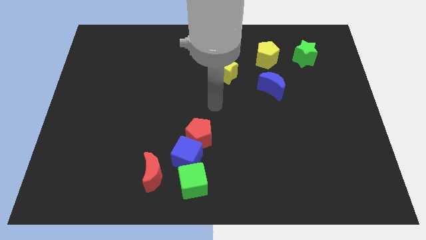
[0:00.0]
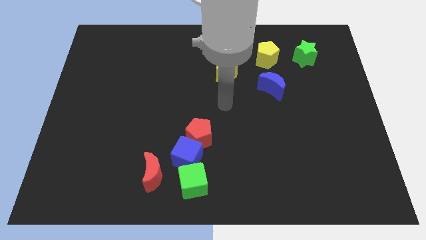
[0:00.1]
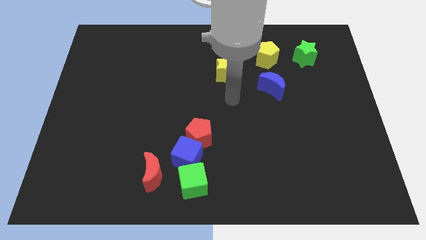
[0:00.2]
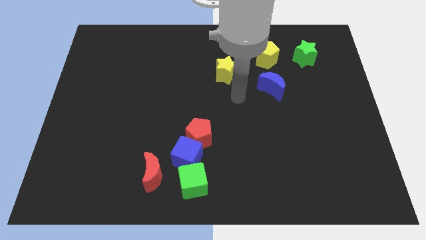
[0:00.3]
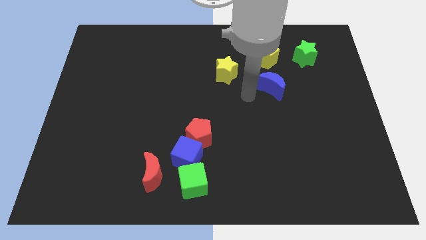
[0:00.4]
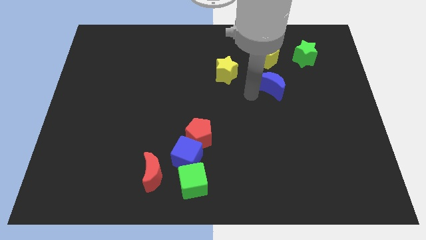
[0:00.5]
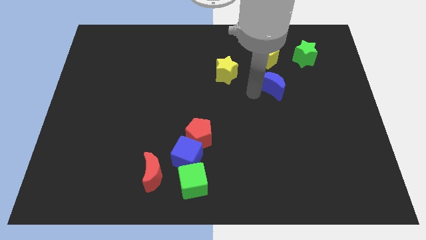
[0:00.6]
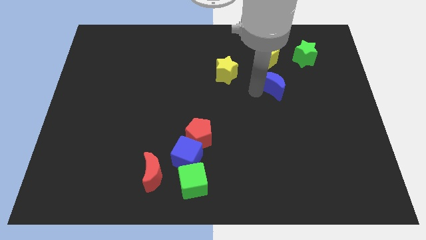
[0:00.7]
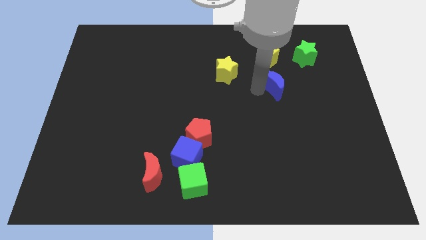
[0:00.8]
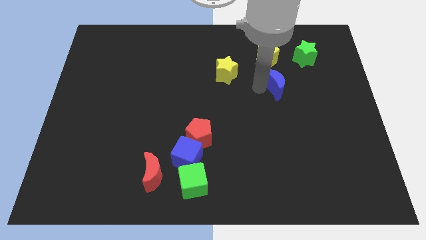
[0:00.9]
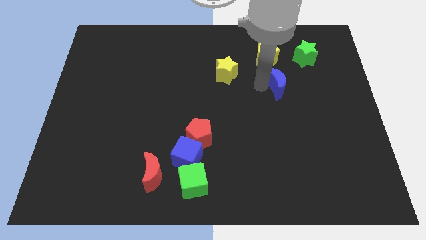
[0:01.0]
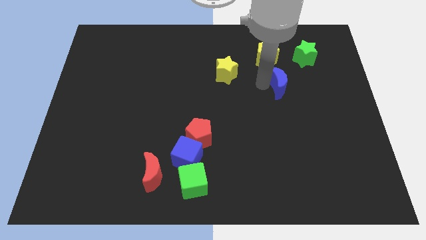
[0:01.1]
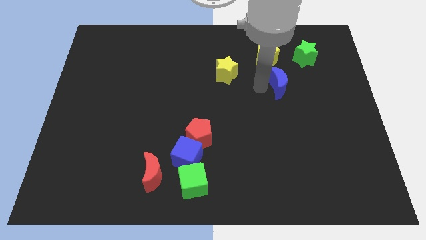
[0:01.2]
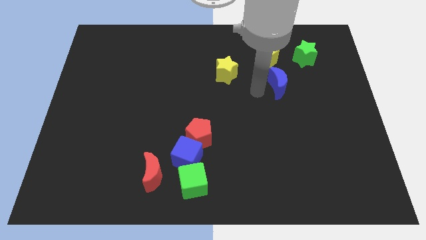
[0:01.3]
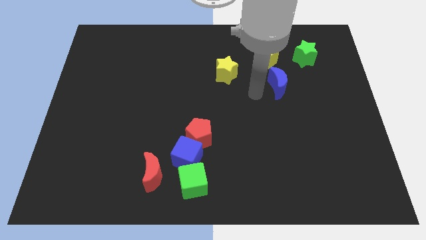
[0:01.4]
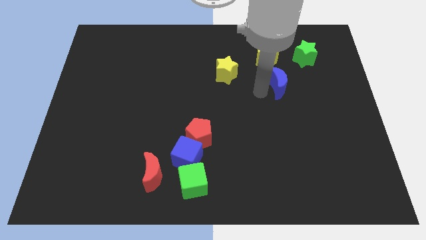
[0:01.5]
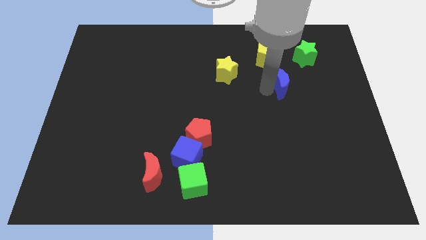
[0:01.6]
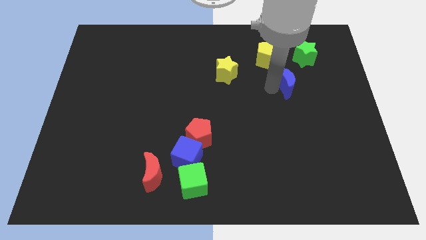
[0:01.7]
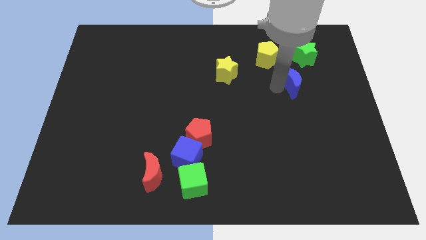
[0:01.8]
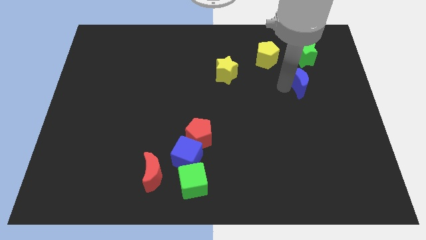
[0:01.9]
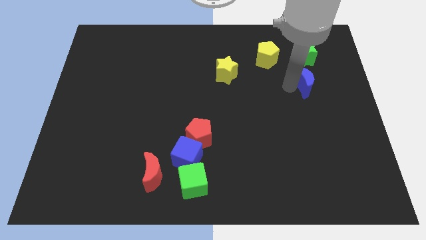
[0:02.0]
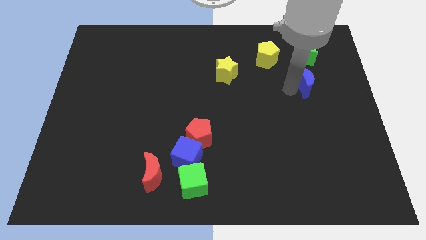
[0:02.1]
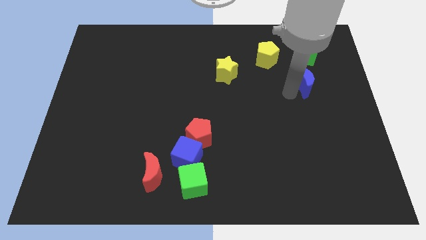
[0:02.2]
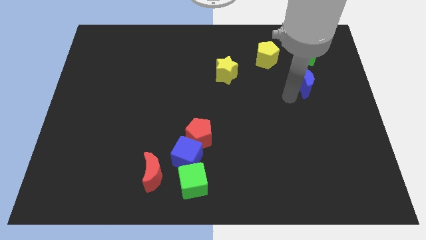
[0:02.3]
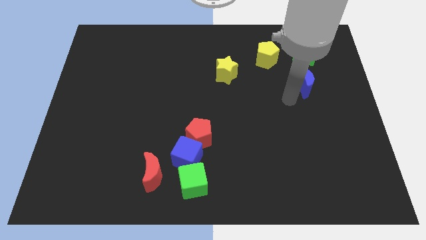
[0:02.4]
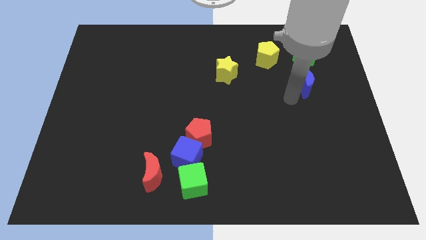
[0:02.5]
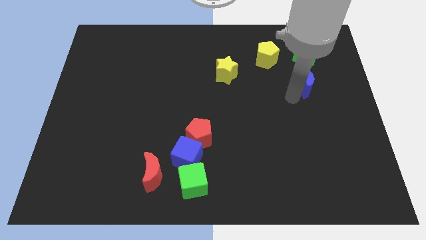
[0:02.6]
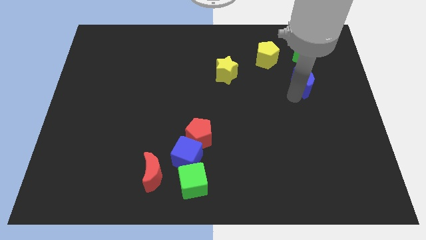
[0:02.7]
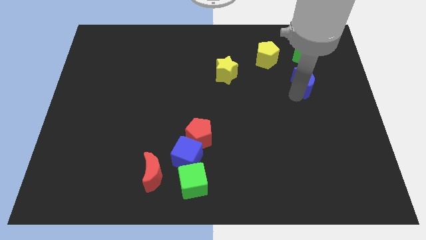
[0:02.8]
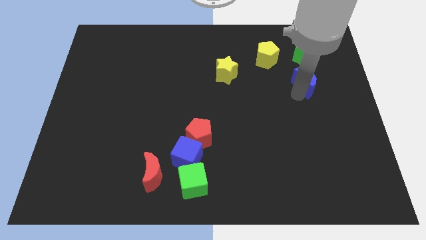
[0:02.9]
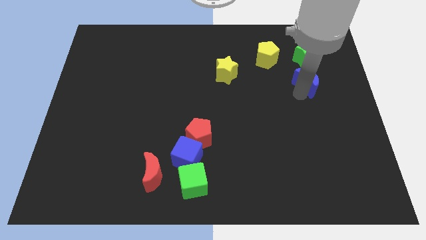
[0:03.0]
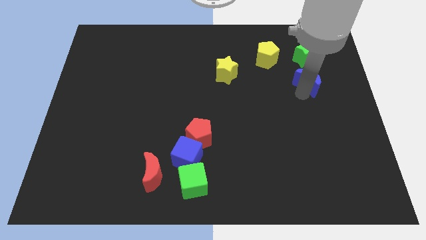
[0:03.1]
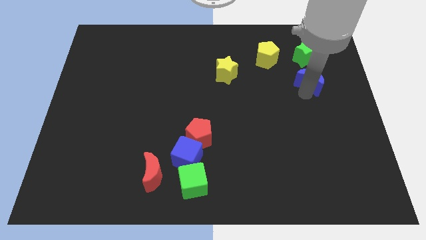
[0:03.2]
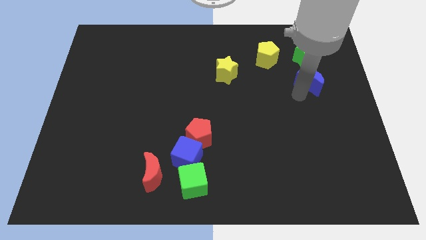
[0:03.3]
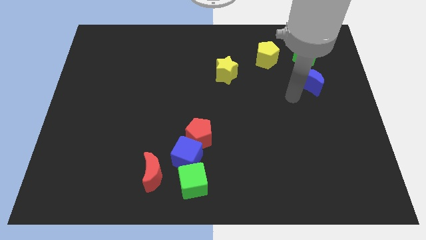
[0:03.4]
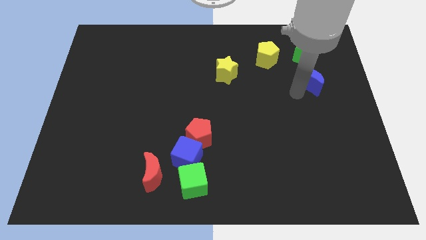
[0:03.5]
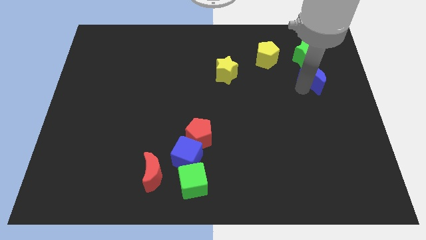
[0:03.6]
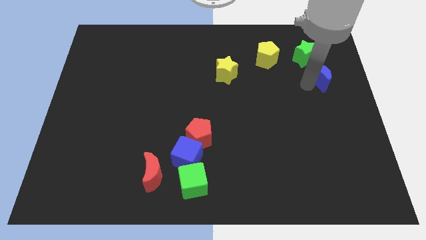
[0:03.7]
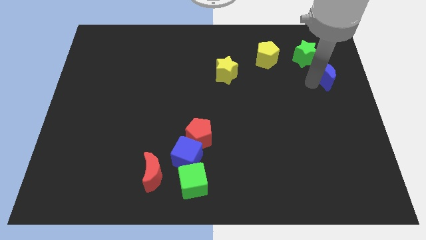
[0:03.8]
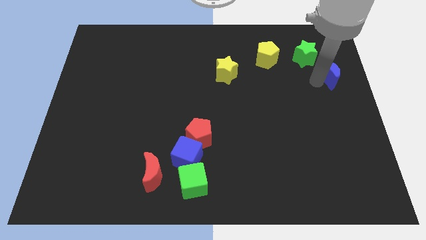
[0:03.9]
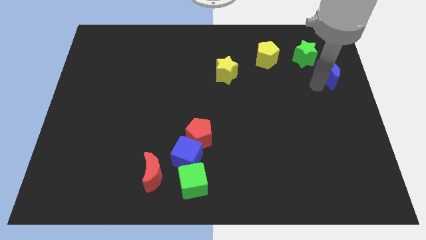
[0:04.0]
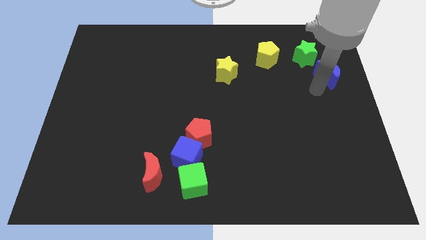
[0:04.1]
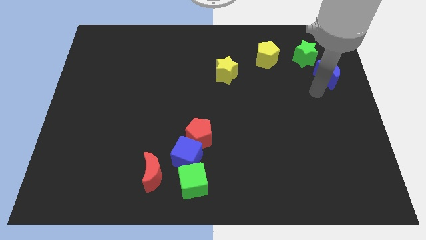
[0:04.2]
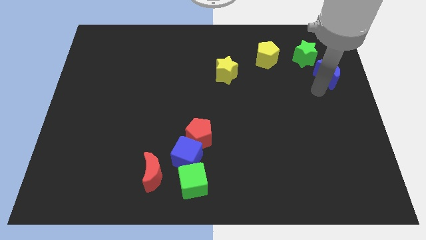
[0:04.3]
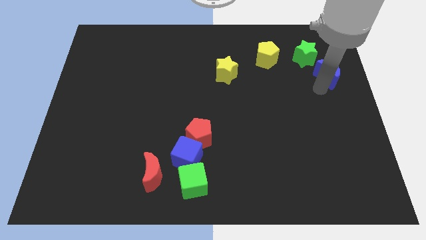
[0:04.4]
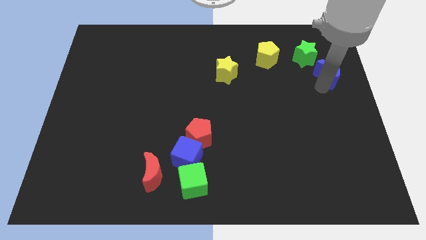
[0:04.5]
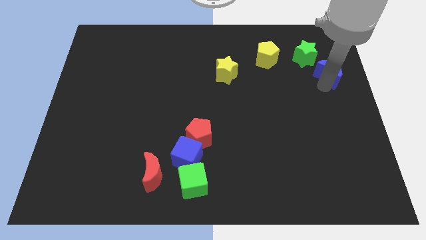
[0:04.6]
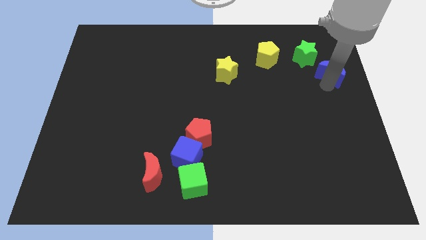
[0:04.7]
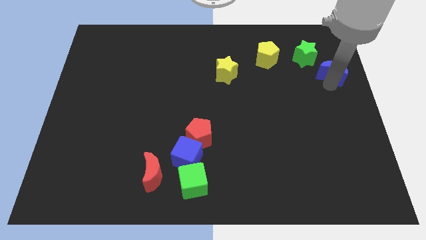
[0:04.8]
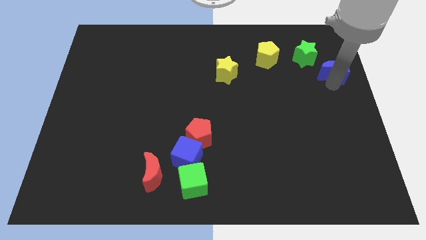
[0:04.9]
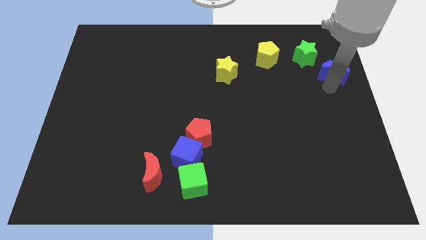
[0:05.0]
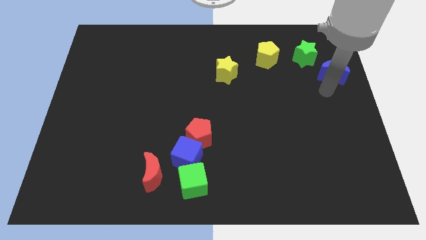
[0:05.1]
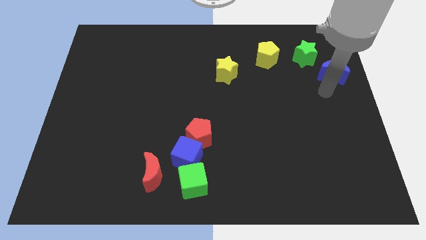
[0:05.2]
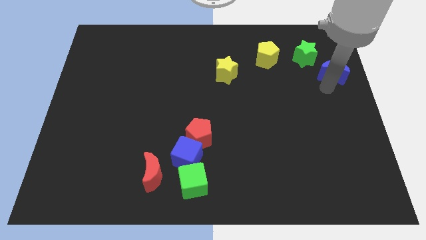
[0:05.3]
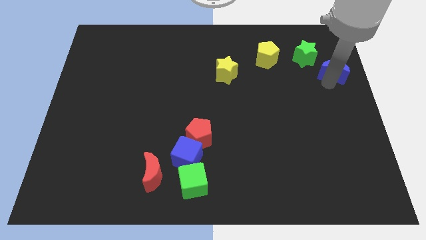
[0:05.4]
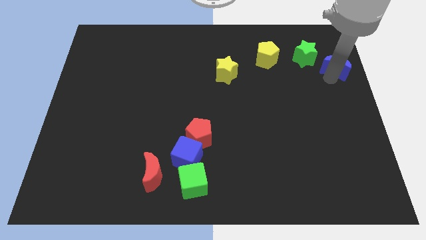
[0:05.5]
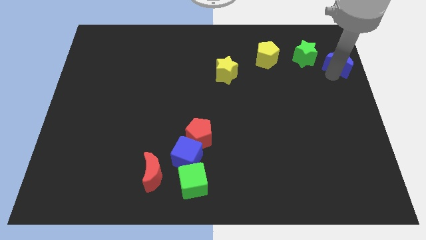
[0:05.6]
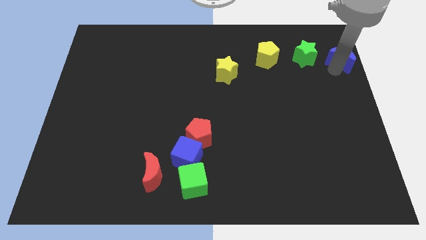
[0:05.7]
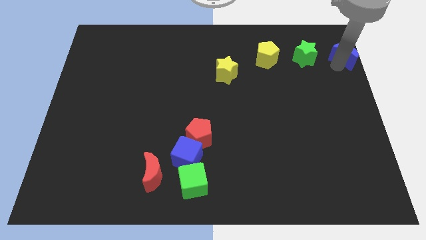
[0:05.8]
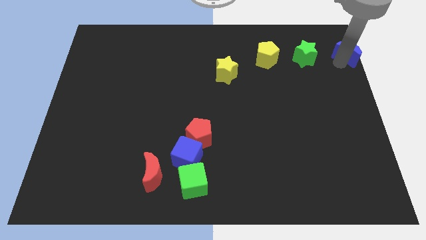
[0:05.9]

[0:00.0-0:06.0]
slide the blue moon to the top right corner

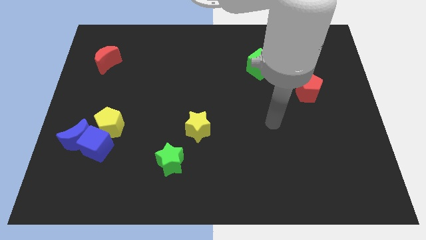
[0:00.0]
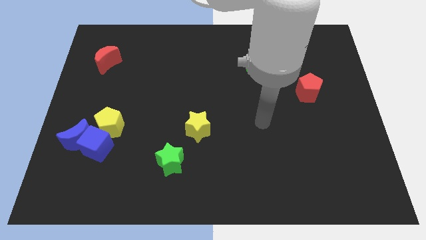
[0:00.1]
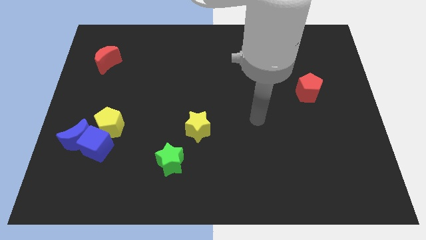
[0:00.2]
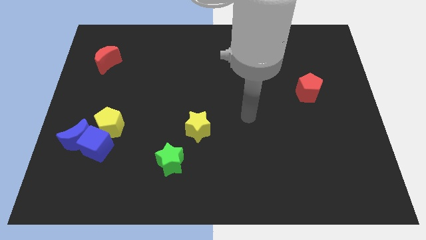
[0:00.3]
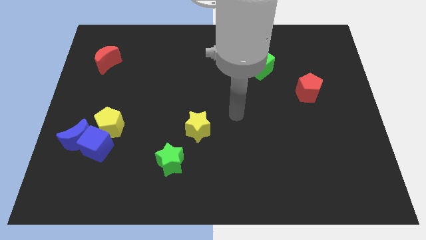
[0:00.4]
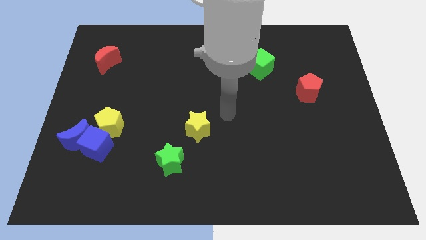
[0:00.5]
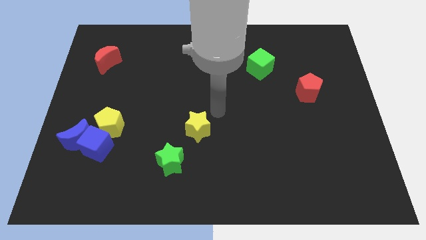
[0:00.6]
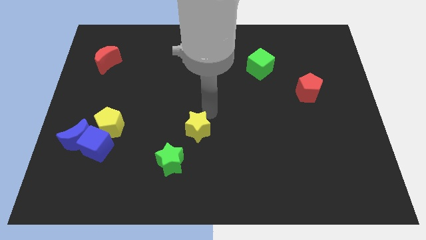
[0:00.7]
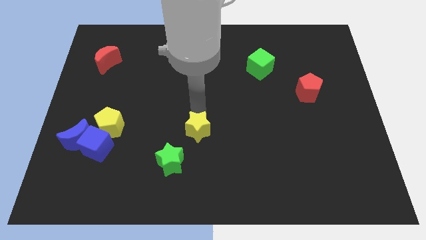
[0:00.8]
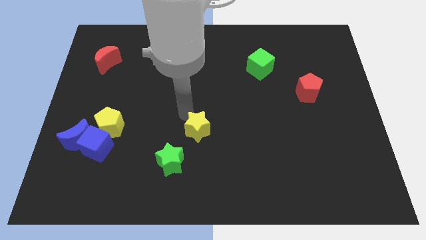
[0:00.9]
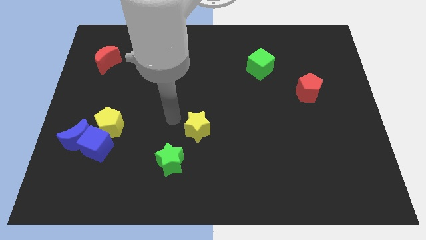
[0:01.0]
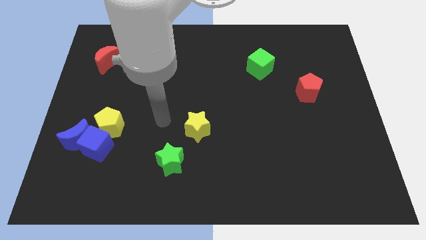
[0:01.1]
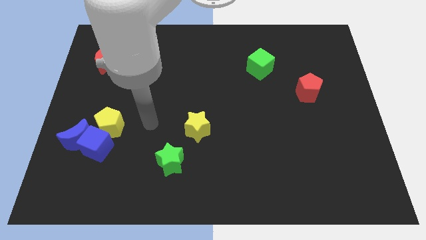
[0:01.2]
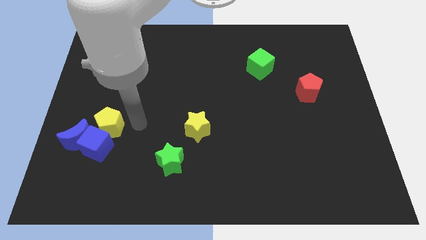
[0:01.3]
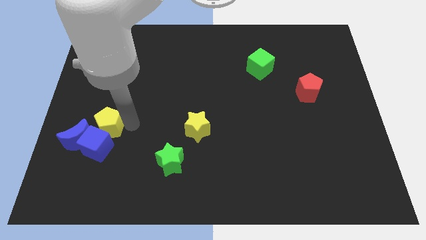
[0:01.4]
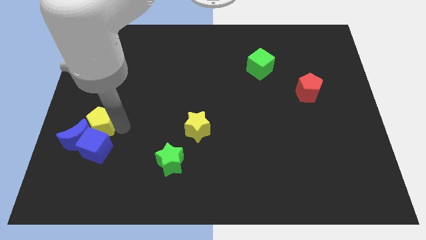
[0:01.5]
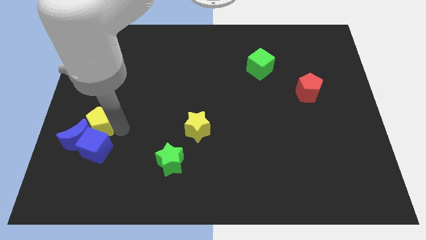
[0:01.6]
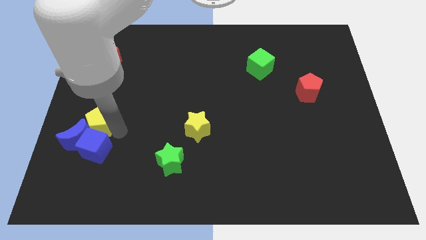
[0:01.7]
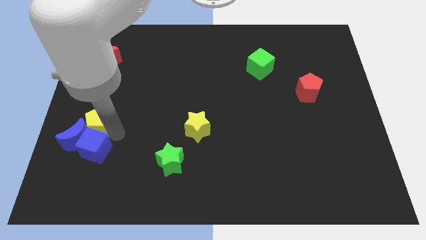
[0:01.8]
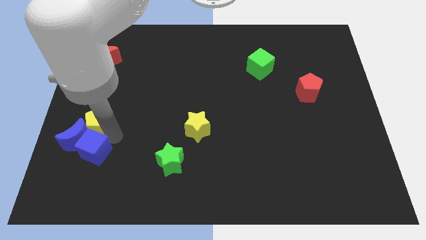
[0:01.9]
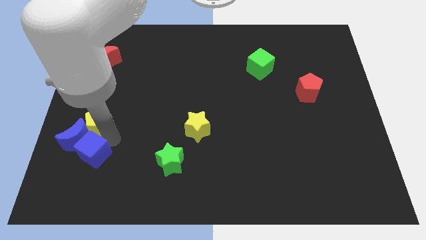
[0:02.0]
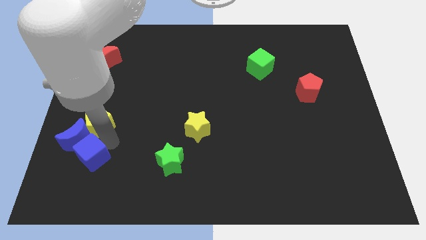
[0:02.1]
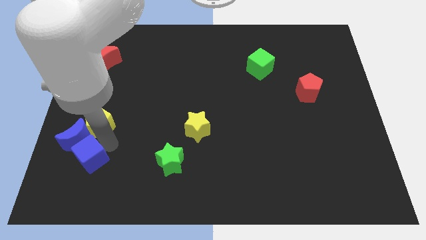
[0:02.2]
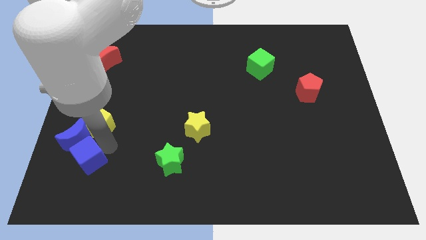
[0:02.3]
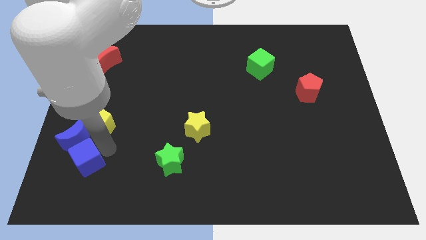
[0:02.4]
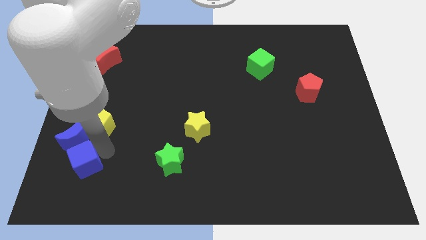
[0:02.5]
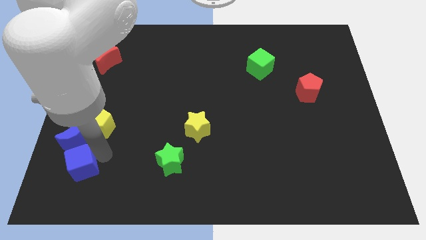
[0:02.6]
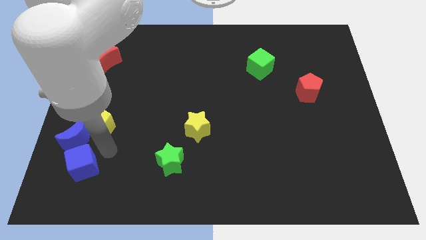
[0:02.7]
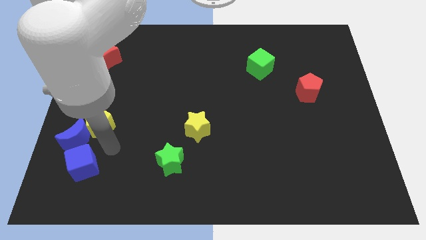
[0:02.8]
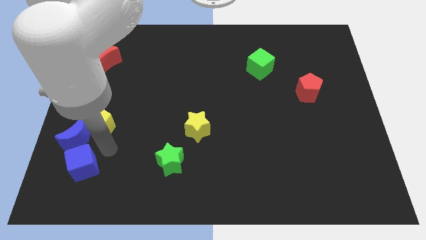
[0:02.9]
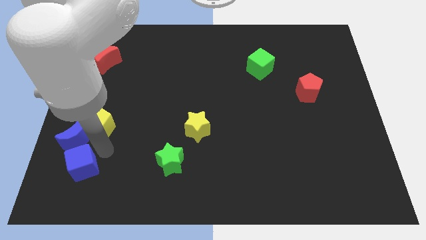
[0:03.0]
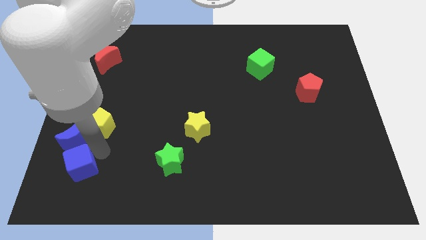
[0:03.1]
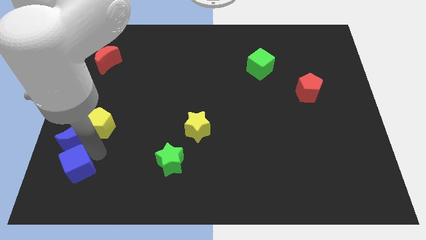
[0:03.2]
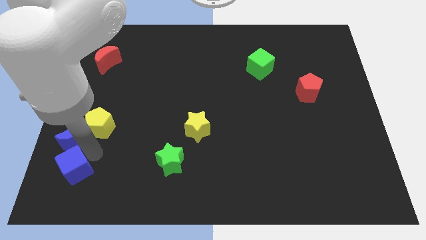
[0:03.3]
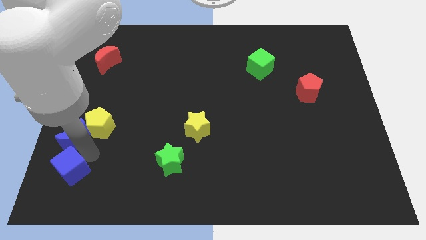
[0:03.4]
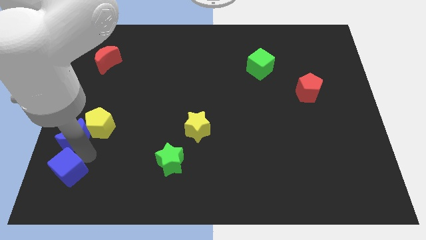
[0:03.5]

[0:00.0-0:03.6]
put the blue cube to the lower left corner
